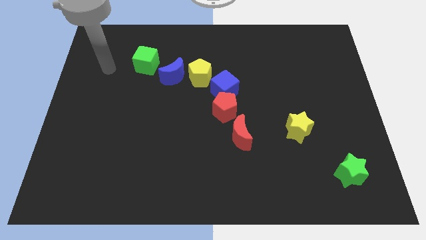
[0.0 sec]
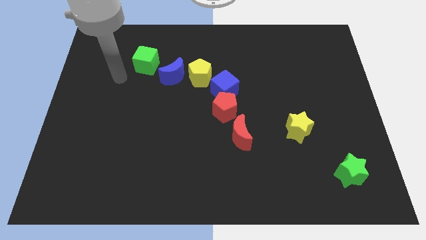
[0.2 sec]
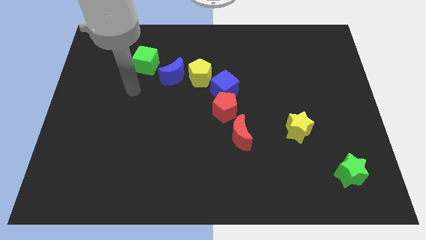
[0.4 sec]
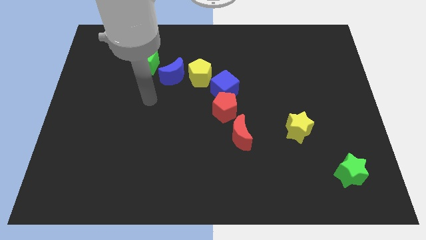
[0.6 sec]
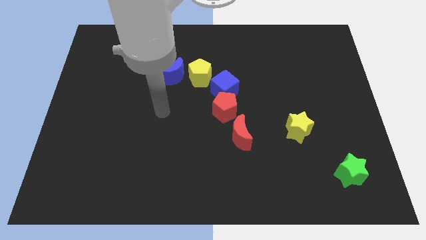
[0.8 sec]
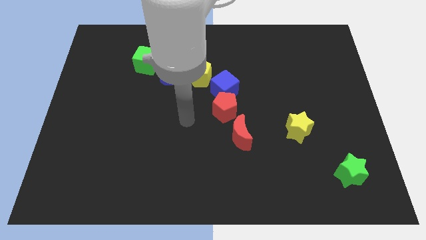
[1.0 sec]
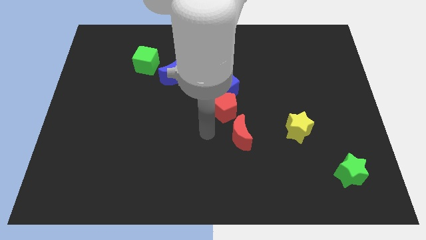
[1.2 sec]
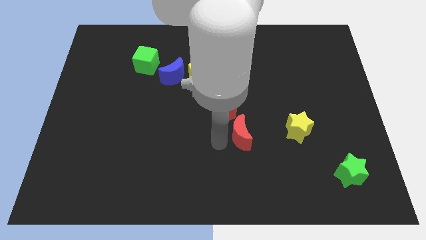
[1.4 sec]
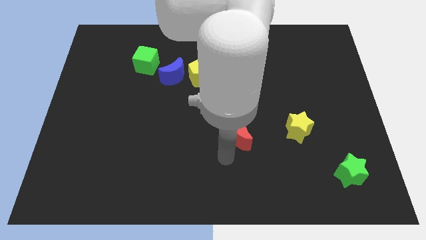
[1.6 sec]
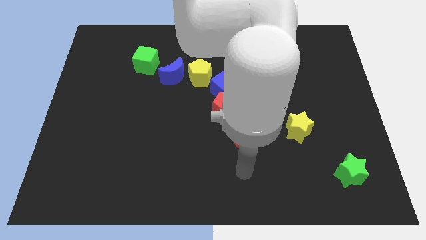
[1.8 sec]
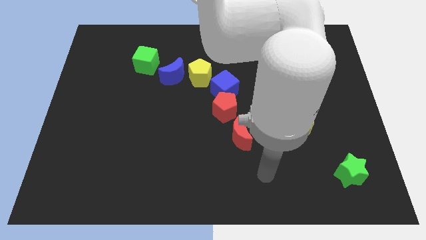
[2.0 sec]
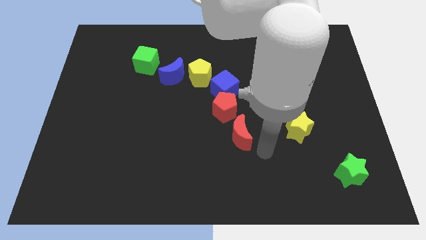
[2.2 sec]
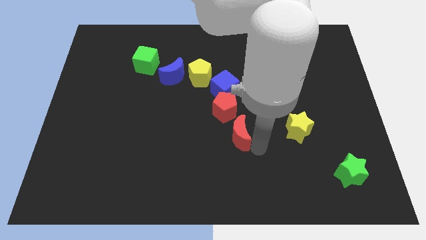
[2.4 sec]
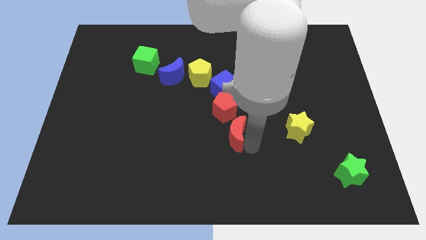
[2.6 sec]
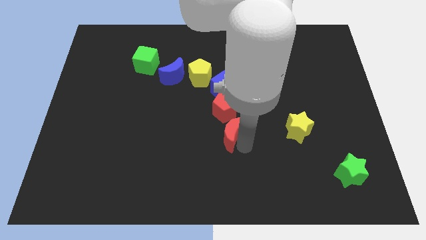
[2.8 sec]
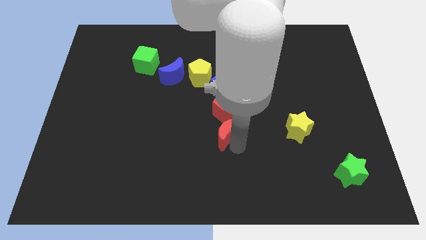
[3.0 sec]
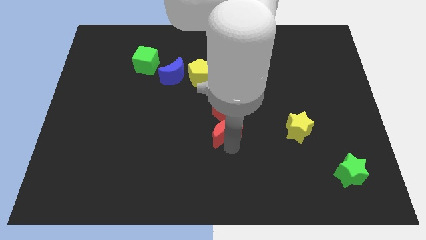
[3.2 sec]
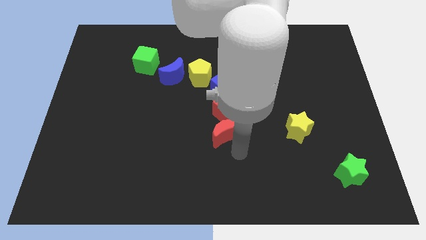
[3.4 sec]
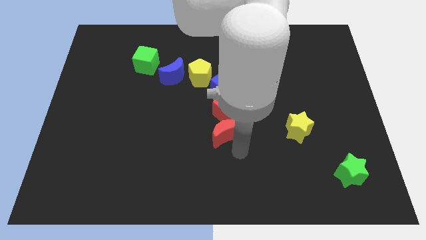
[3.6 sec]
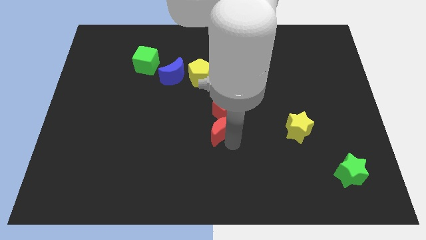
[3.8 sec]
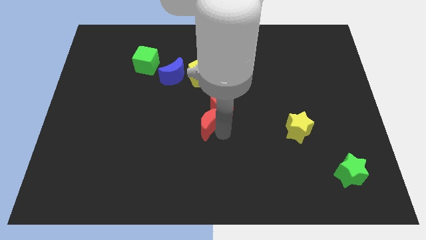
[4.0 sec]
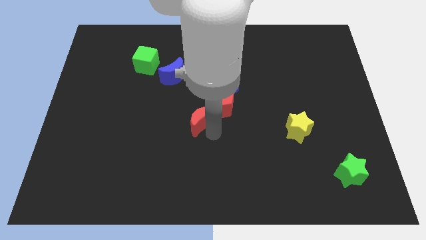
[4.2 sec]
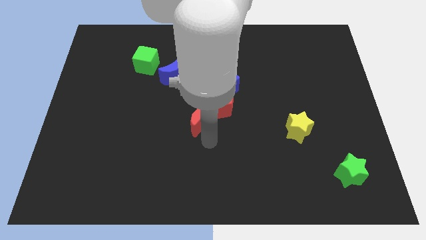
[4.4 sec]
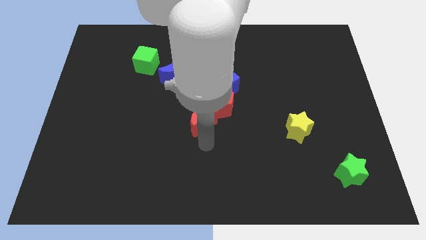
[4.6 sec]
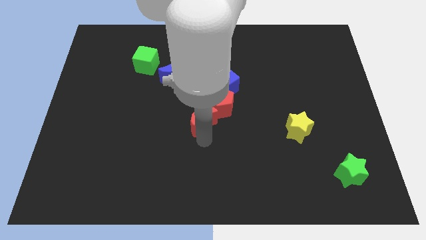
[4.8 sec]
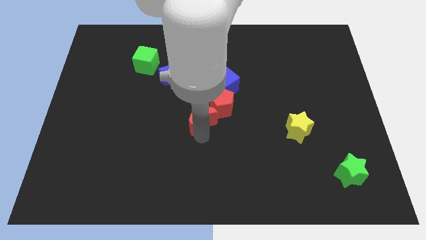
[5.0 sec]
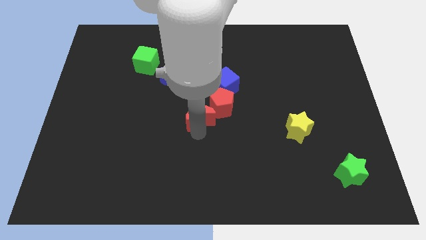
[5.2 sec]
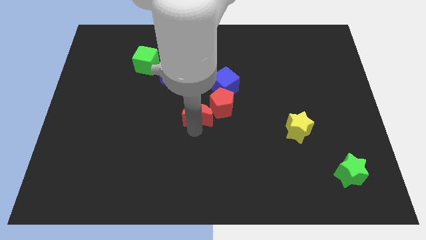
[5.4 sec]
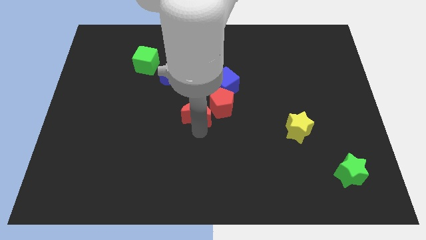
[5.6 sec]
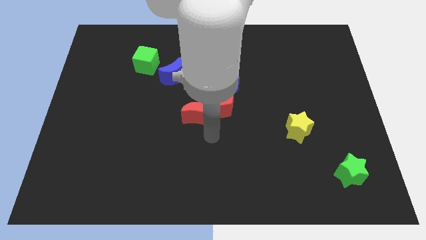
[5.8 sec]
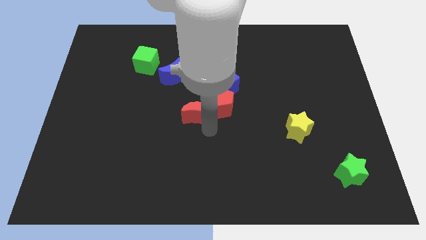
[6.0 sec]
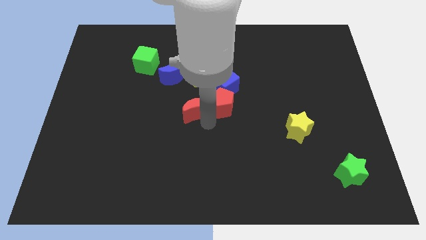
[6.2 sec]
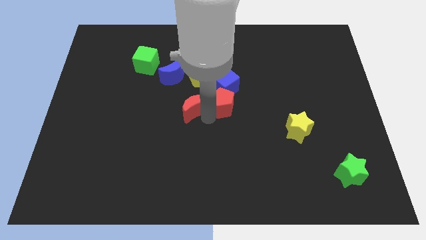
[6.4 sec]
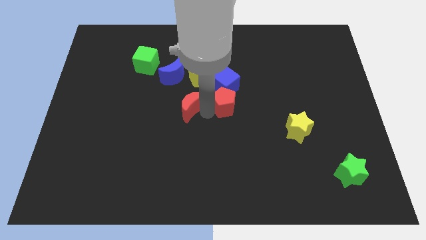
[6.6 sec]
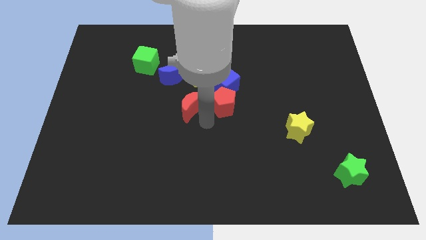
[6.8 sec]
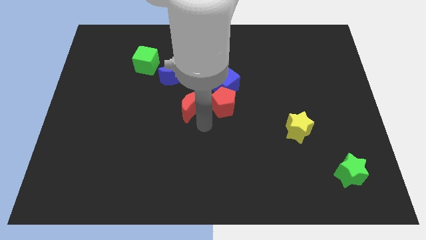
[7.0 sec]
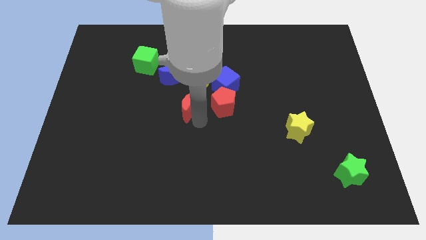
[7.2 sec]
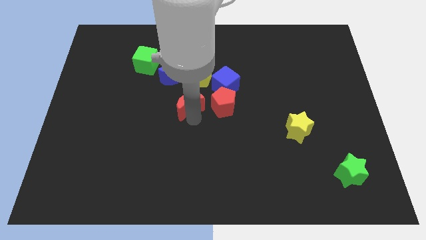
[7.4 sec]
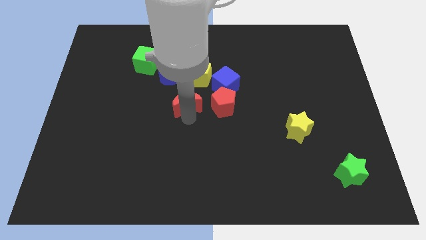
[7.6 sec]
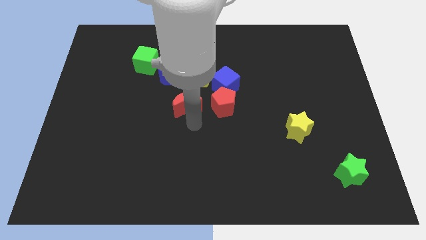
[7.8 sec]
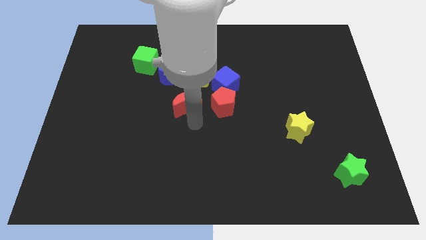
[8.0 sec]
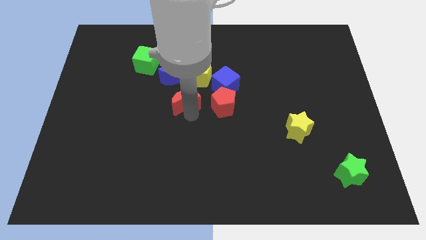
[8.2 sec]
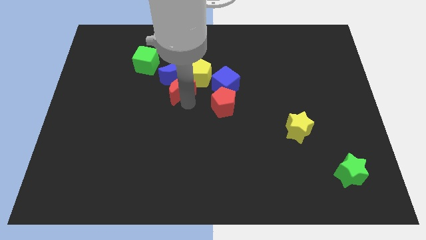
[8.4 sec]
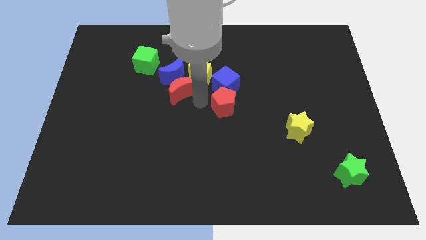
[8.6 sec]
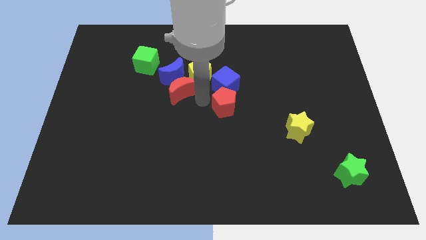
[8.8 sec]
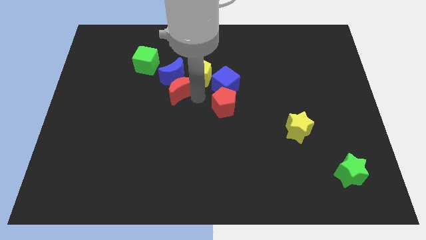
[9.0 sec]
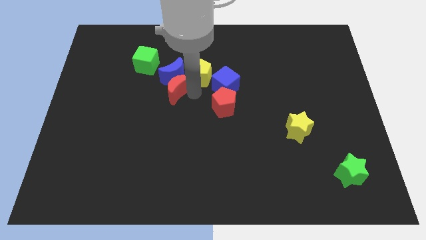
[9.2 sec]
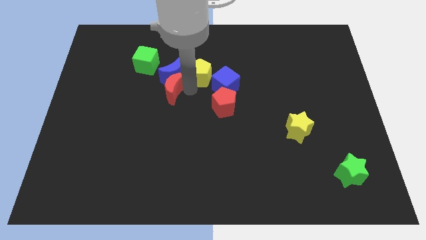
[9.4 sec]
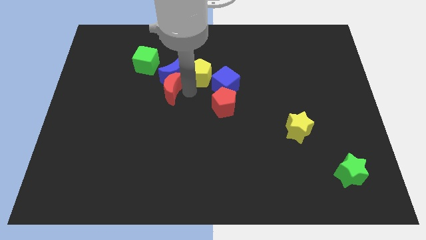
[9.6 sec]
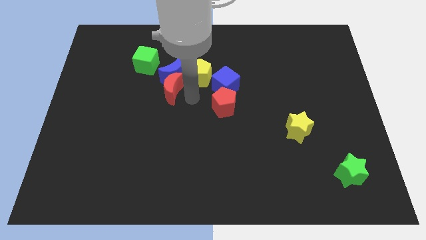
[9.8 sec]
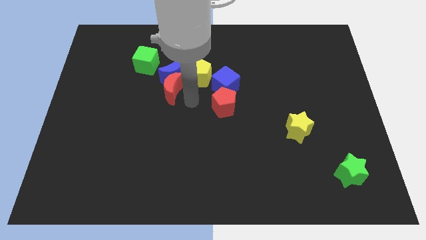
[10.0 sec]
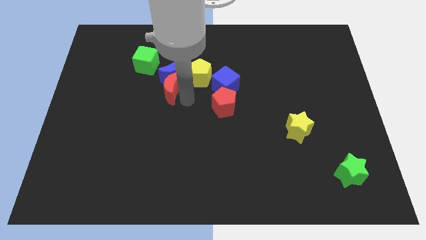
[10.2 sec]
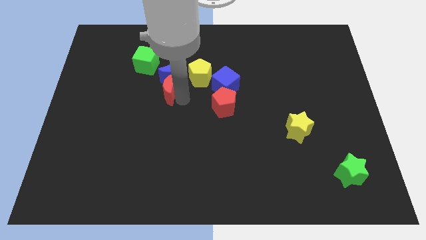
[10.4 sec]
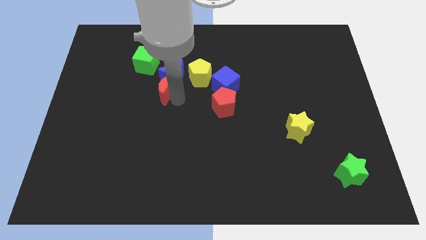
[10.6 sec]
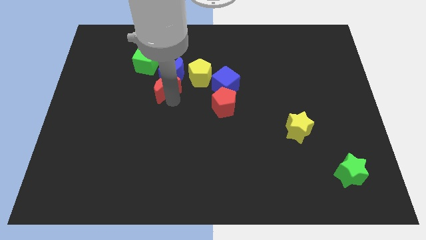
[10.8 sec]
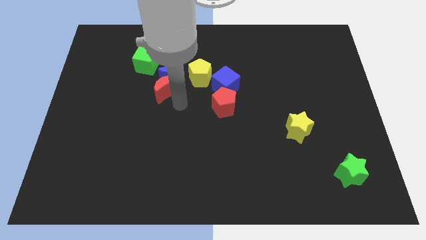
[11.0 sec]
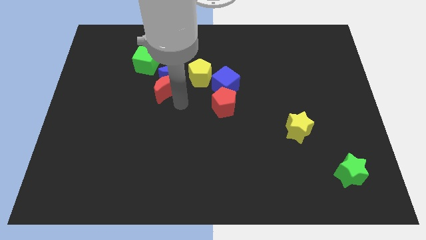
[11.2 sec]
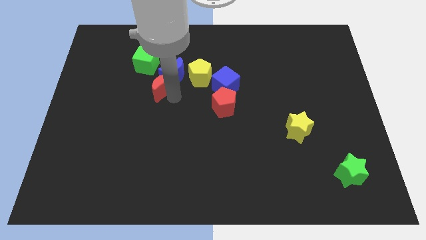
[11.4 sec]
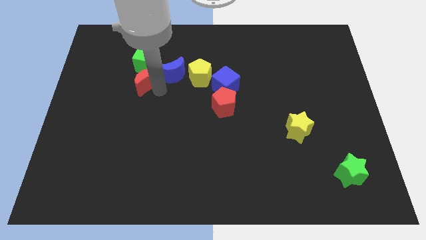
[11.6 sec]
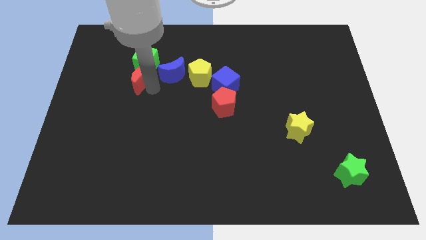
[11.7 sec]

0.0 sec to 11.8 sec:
slide the red moon towards the green cube

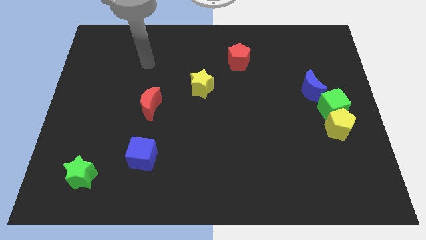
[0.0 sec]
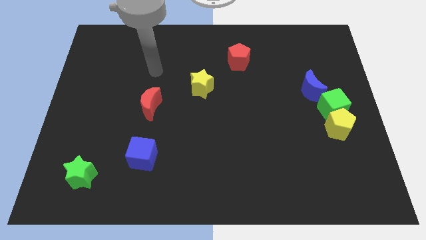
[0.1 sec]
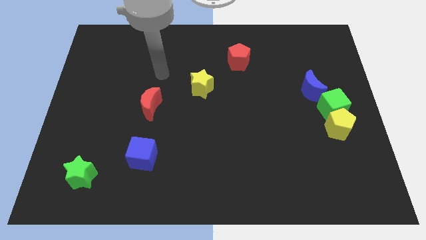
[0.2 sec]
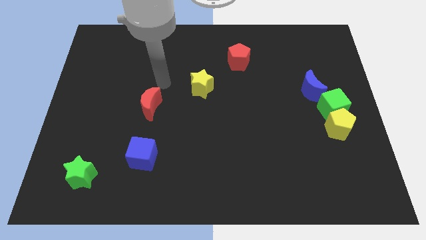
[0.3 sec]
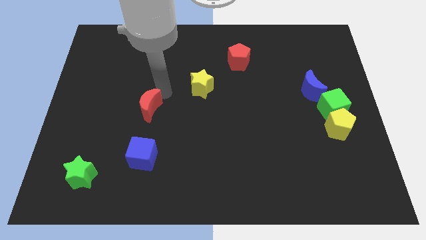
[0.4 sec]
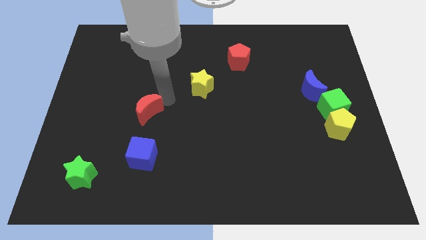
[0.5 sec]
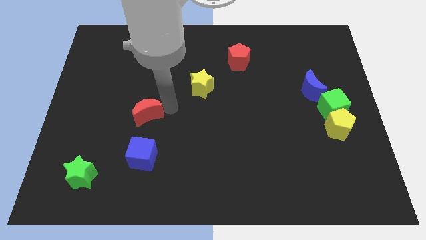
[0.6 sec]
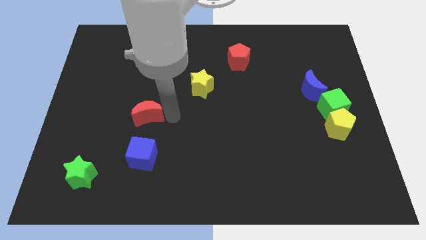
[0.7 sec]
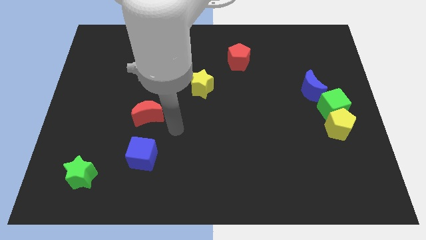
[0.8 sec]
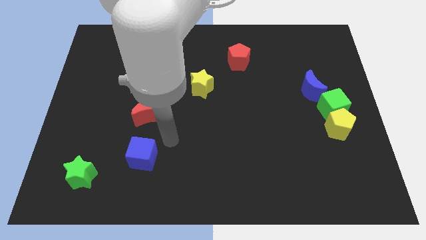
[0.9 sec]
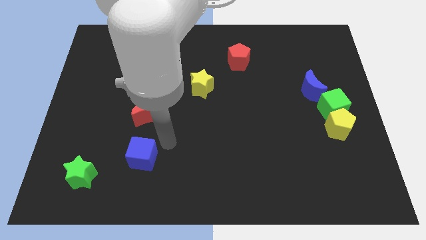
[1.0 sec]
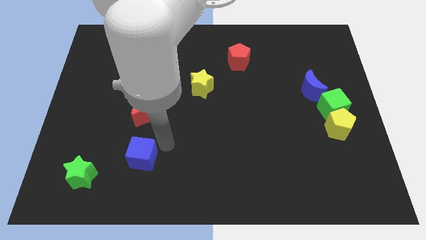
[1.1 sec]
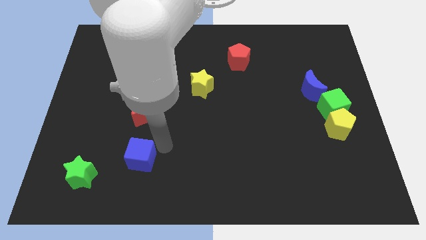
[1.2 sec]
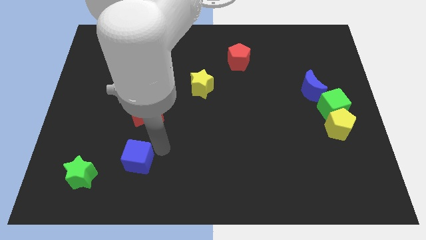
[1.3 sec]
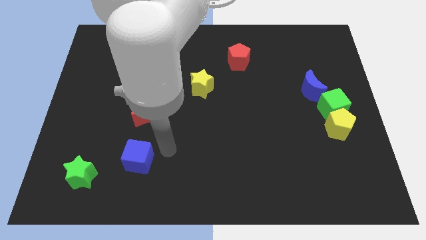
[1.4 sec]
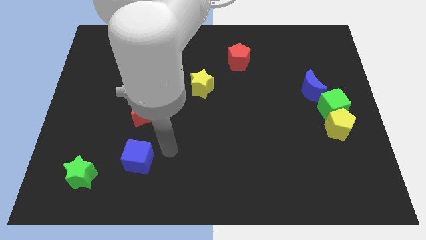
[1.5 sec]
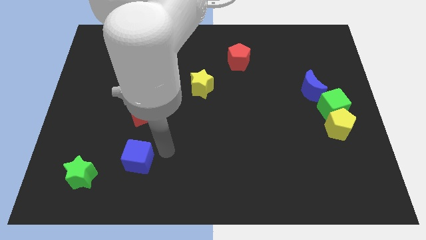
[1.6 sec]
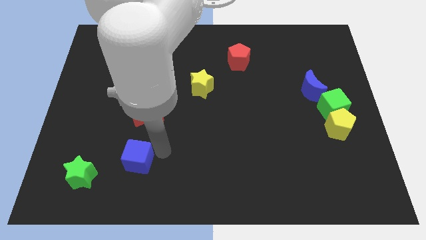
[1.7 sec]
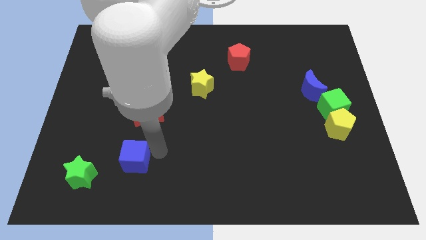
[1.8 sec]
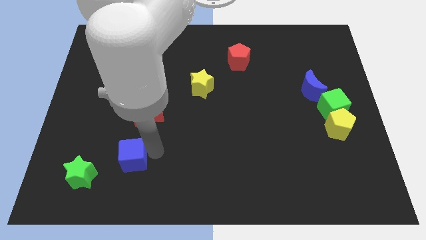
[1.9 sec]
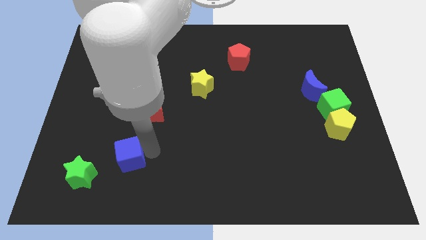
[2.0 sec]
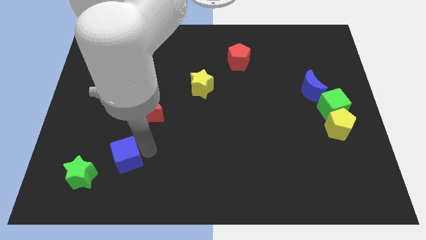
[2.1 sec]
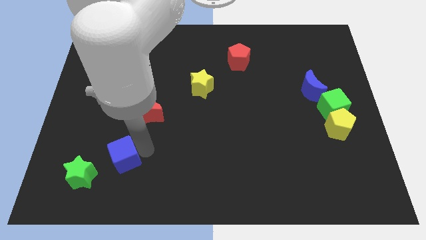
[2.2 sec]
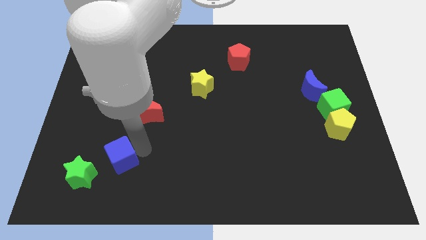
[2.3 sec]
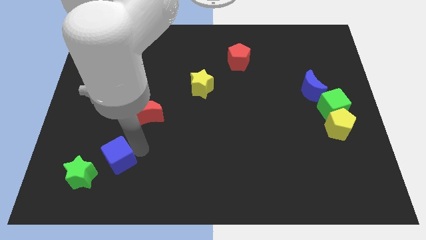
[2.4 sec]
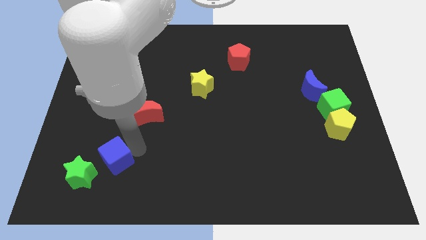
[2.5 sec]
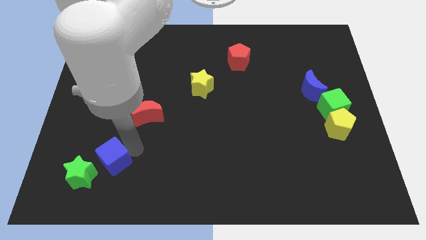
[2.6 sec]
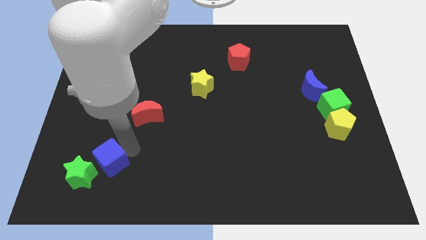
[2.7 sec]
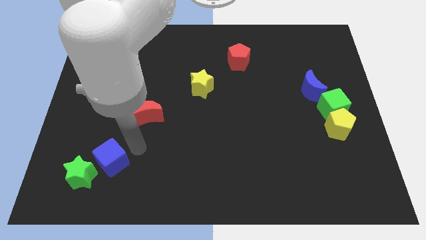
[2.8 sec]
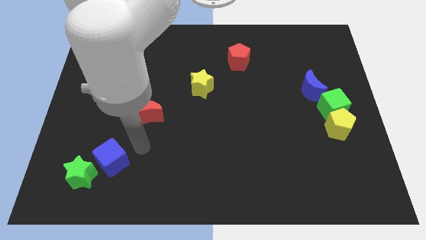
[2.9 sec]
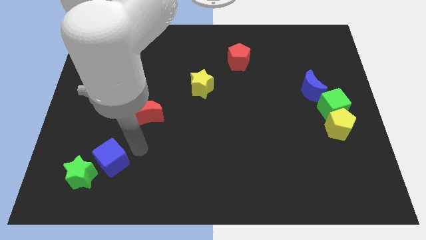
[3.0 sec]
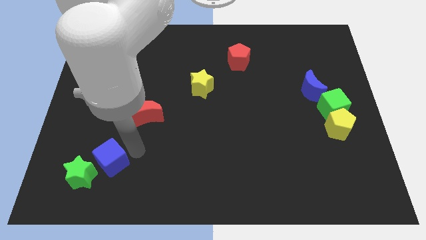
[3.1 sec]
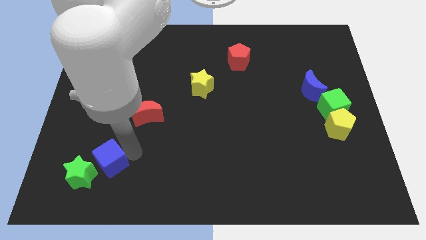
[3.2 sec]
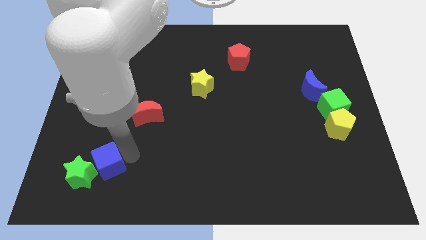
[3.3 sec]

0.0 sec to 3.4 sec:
slide the blue cube next to the green star
